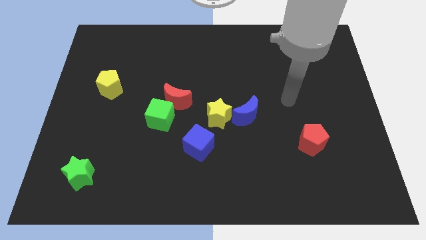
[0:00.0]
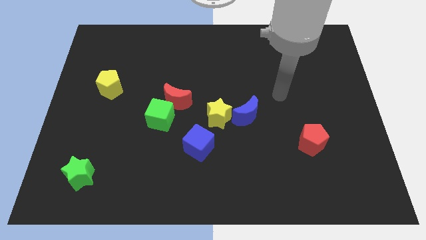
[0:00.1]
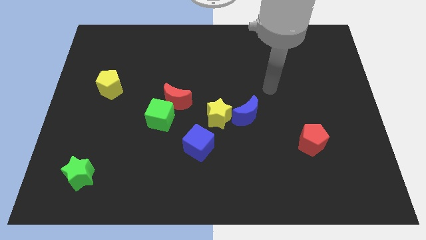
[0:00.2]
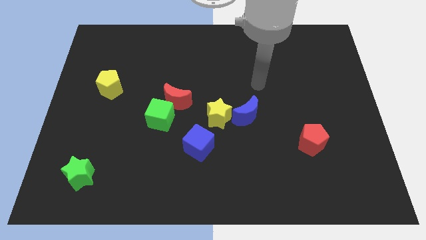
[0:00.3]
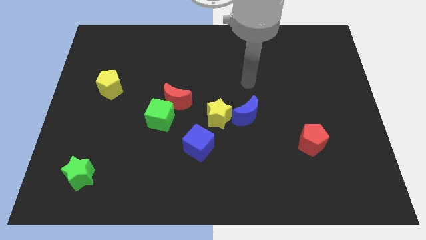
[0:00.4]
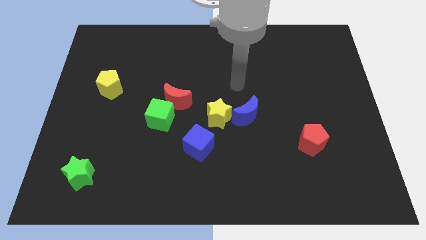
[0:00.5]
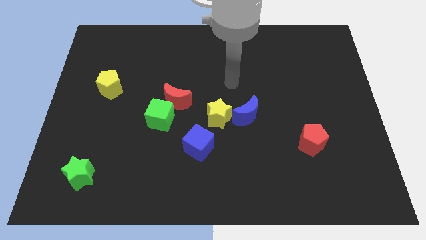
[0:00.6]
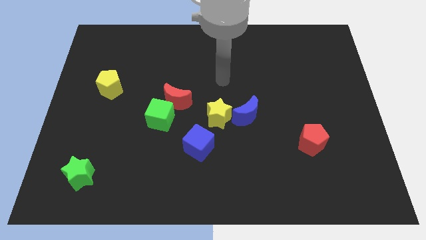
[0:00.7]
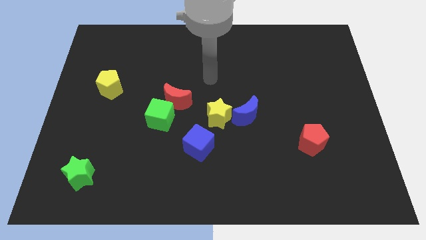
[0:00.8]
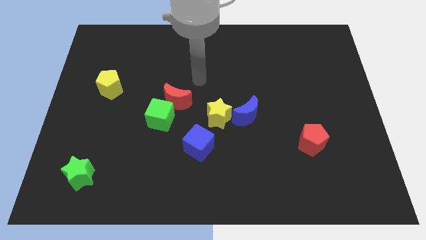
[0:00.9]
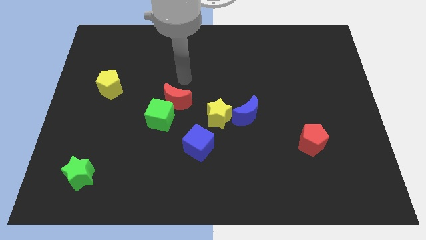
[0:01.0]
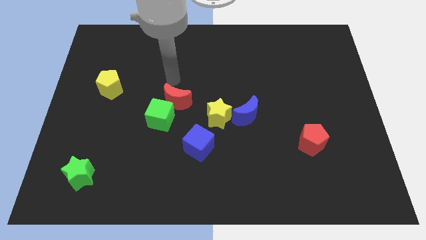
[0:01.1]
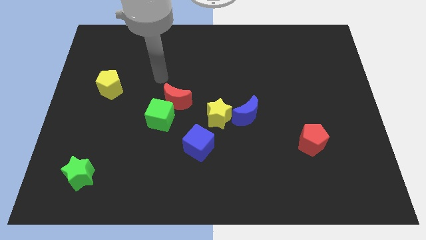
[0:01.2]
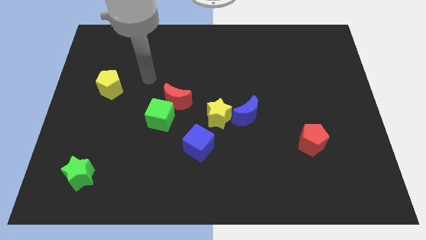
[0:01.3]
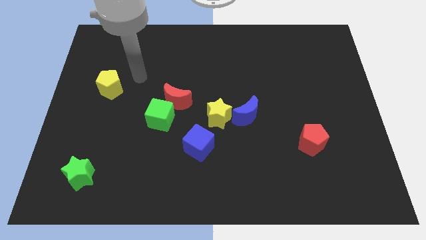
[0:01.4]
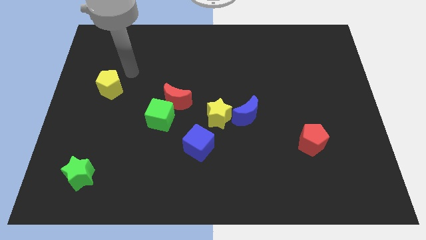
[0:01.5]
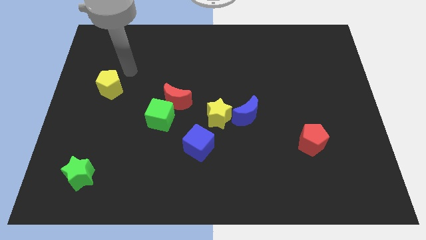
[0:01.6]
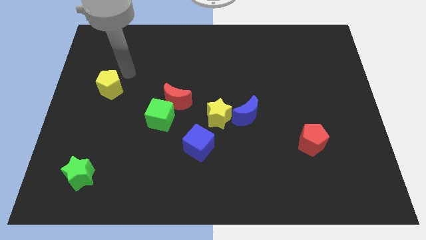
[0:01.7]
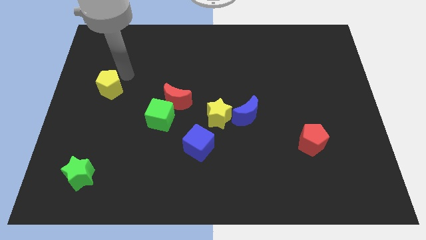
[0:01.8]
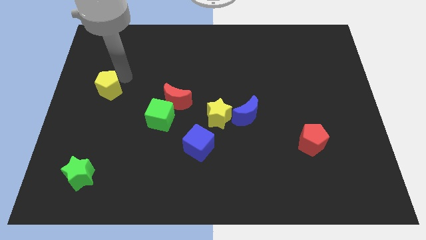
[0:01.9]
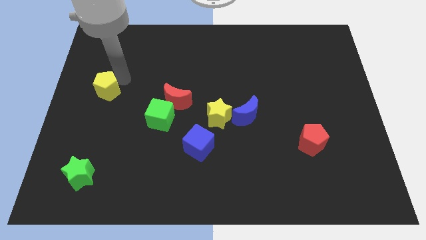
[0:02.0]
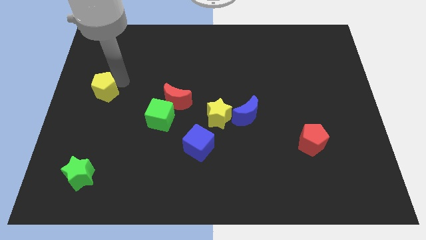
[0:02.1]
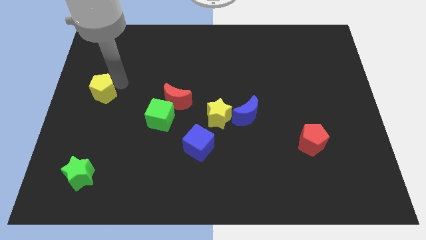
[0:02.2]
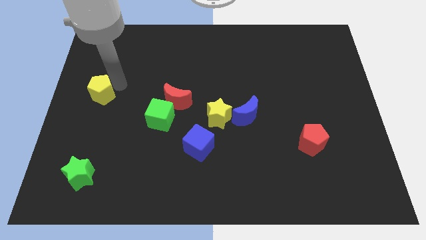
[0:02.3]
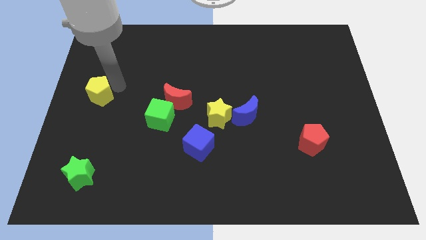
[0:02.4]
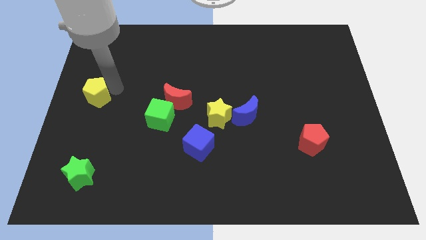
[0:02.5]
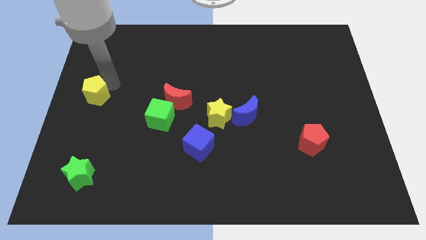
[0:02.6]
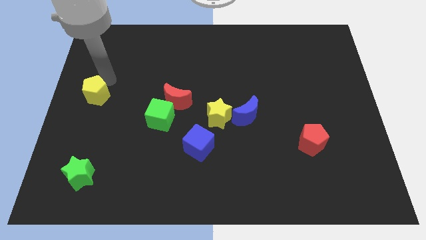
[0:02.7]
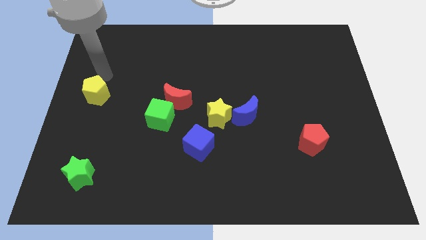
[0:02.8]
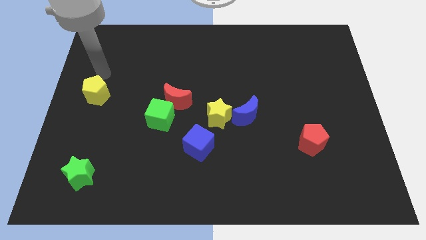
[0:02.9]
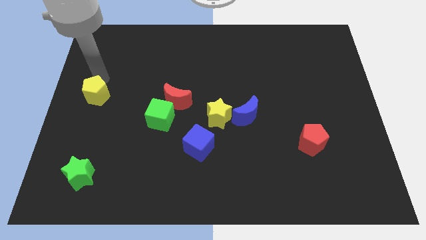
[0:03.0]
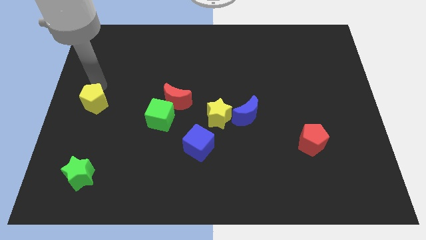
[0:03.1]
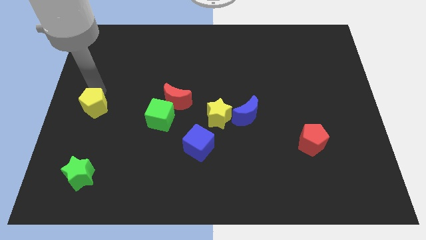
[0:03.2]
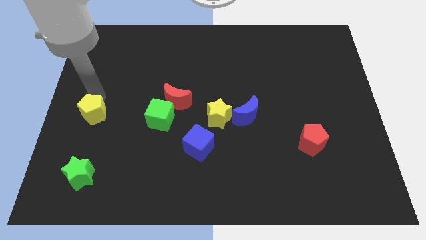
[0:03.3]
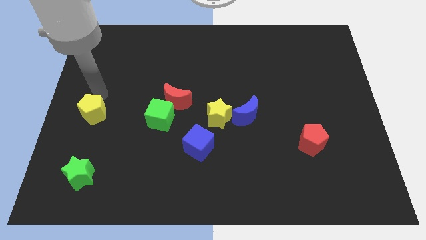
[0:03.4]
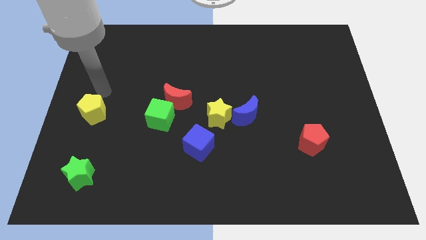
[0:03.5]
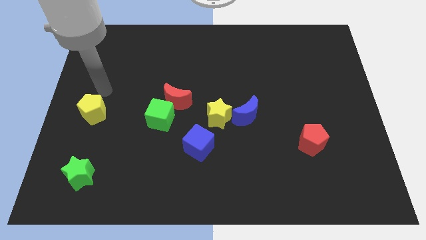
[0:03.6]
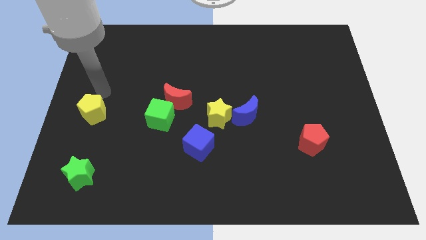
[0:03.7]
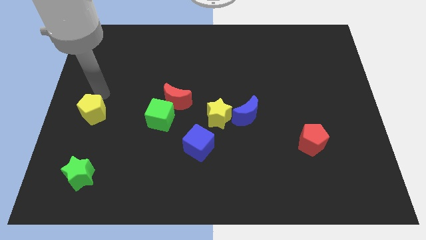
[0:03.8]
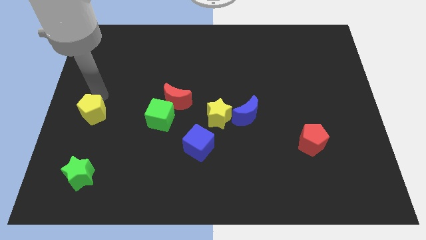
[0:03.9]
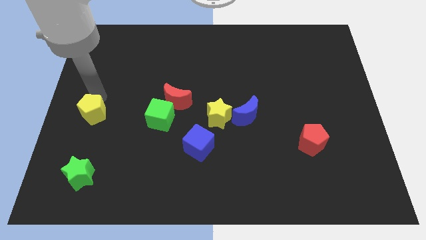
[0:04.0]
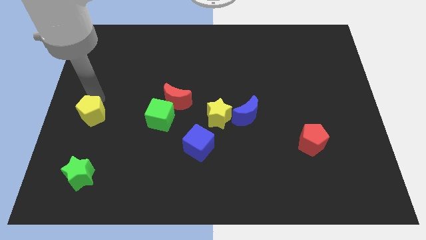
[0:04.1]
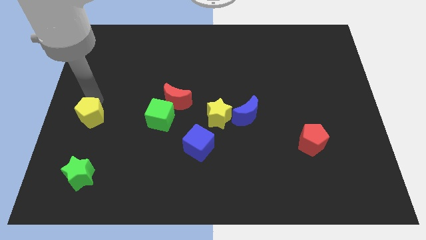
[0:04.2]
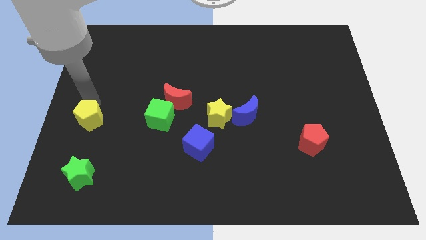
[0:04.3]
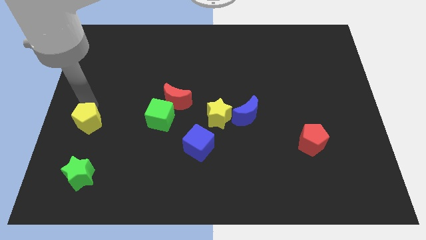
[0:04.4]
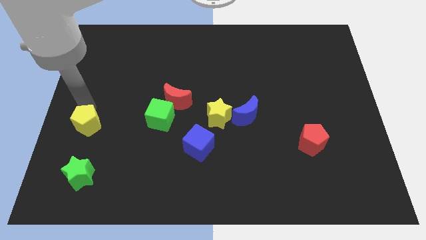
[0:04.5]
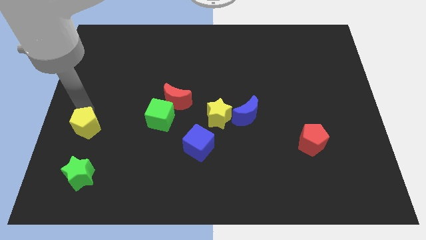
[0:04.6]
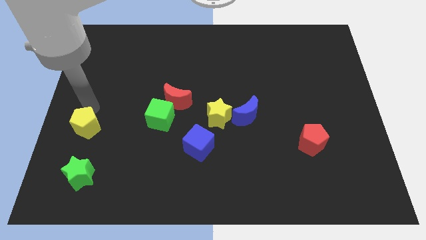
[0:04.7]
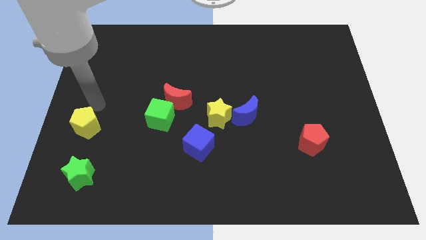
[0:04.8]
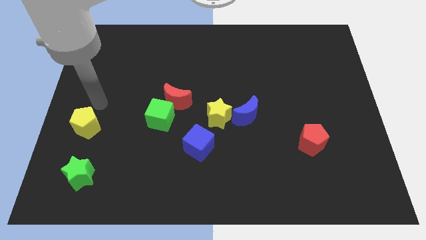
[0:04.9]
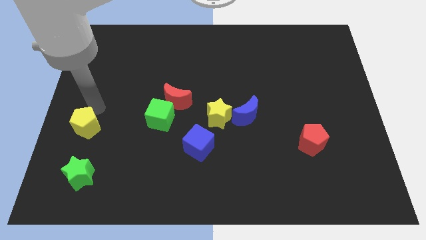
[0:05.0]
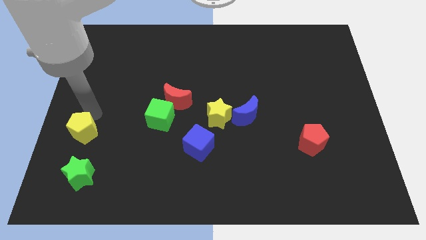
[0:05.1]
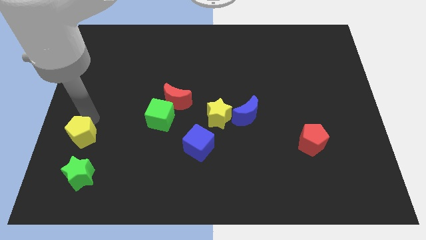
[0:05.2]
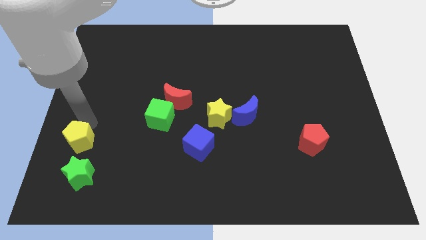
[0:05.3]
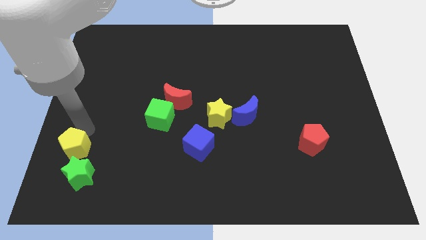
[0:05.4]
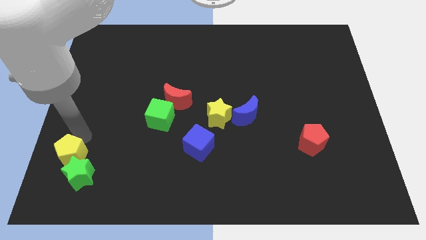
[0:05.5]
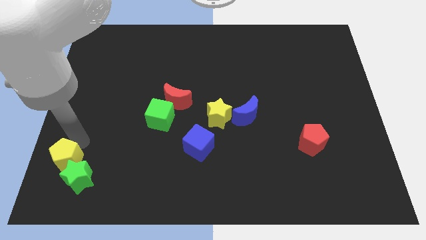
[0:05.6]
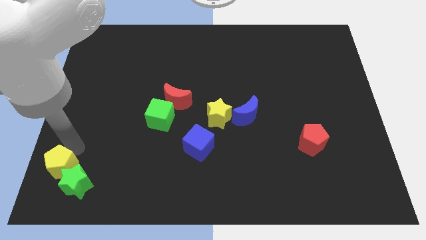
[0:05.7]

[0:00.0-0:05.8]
push the yellow pentagon to the lower left corner

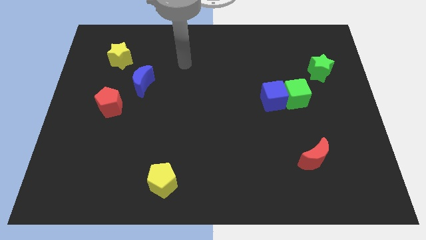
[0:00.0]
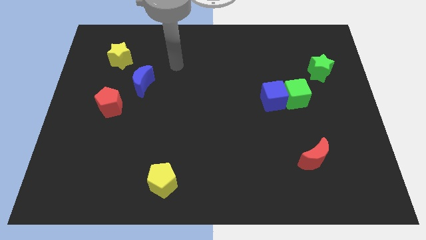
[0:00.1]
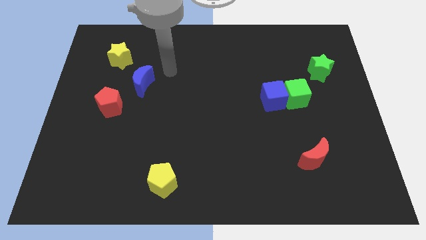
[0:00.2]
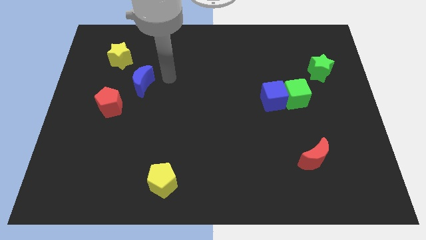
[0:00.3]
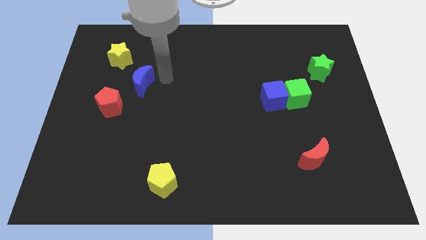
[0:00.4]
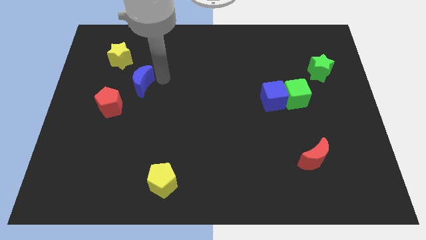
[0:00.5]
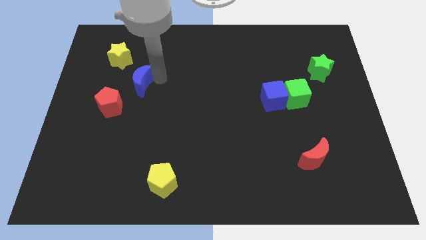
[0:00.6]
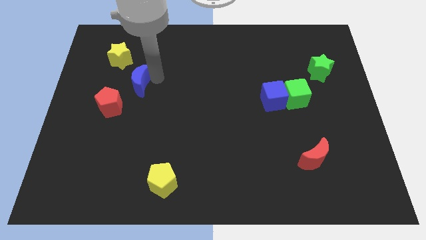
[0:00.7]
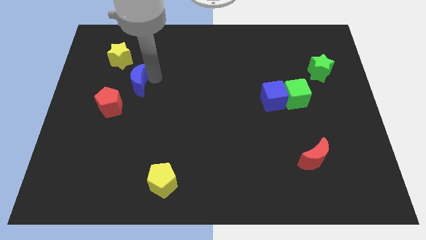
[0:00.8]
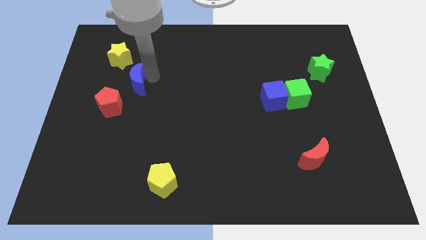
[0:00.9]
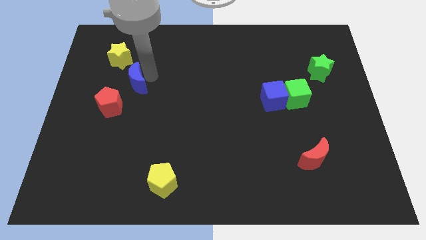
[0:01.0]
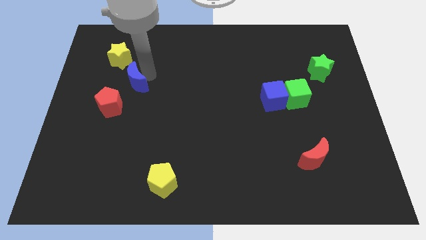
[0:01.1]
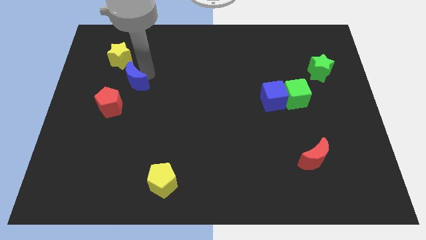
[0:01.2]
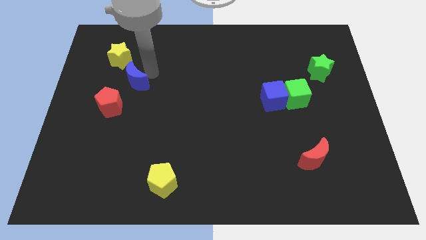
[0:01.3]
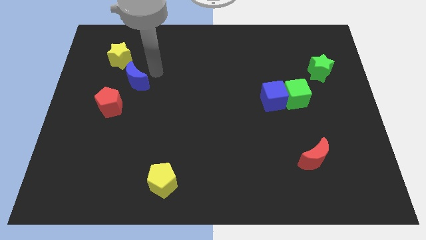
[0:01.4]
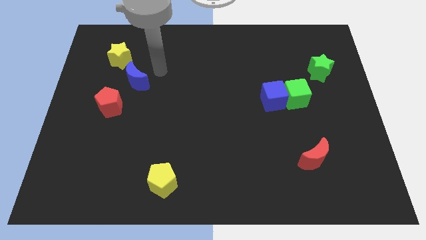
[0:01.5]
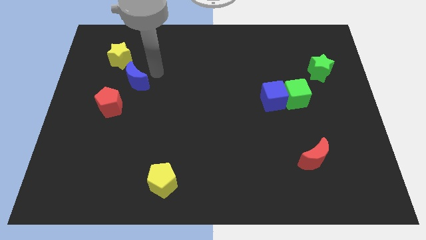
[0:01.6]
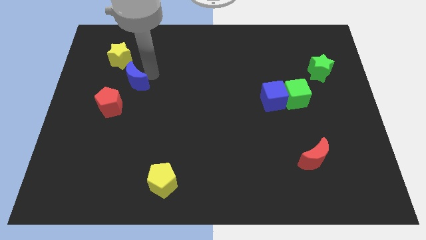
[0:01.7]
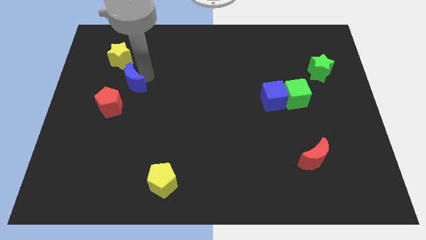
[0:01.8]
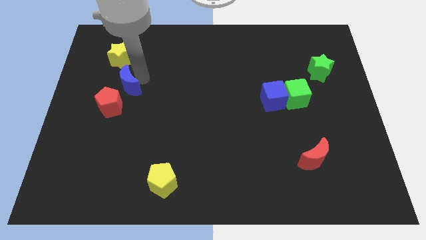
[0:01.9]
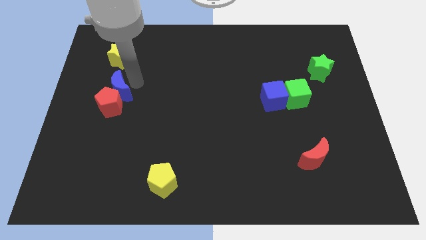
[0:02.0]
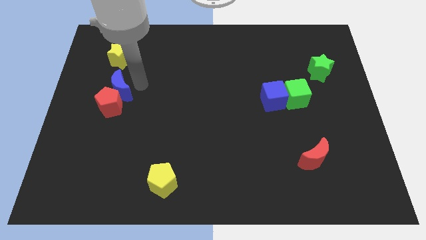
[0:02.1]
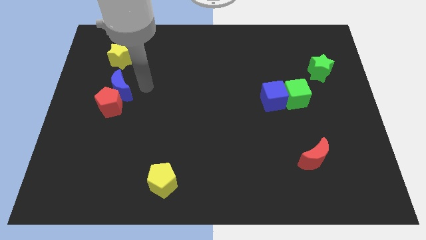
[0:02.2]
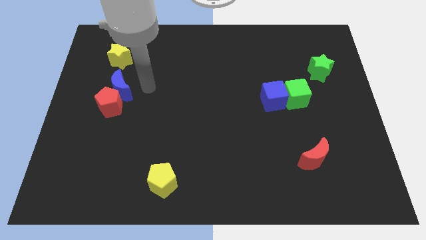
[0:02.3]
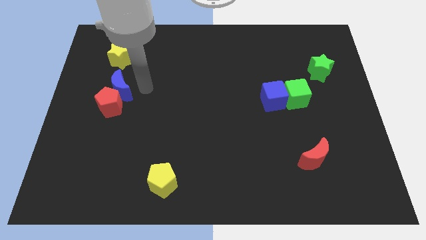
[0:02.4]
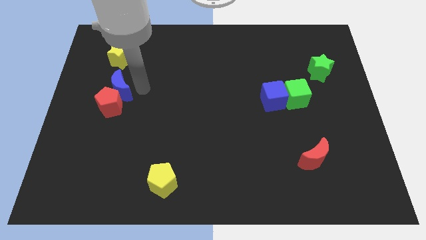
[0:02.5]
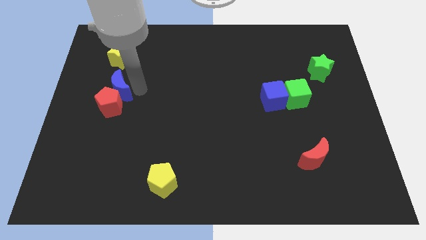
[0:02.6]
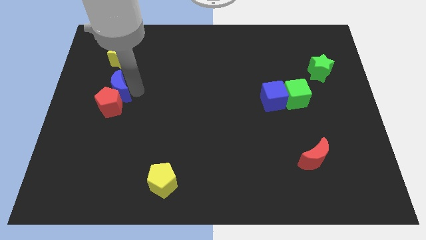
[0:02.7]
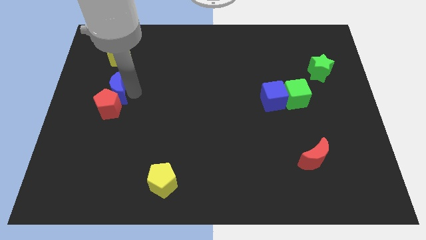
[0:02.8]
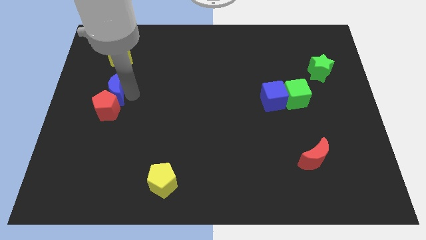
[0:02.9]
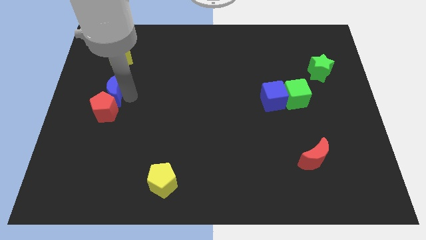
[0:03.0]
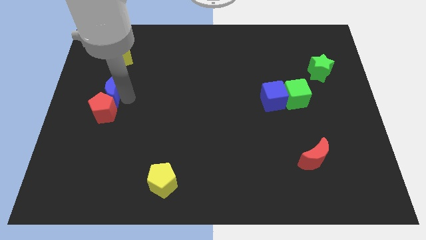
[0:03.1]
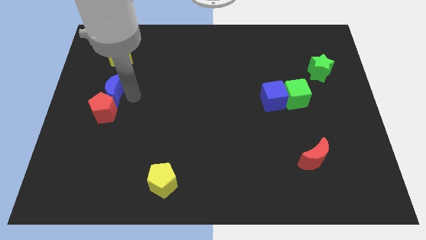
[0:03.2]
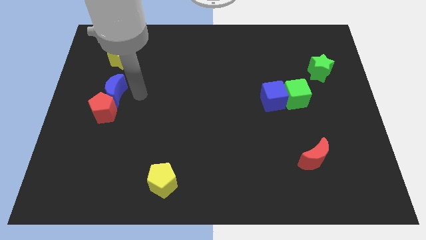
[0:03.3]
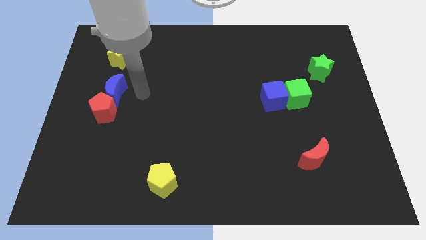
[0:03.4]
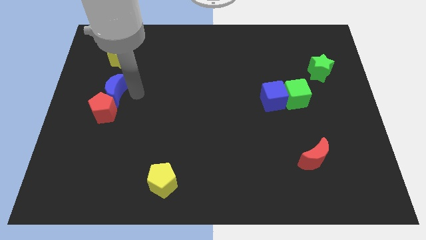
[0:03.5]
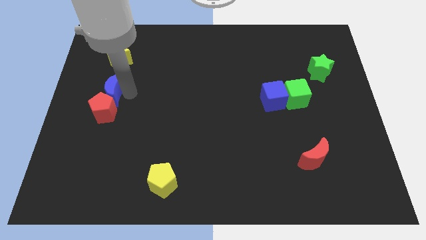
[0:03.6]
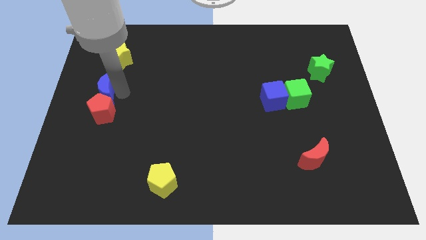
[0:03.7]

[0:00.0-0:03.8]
move the blue moon to the left side of the board
